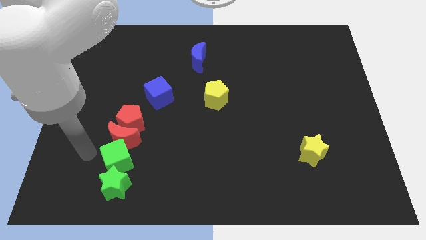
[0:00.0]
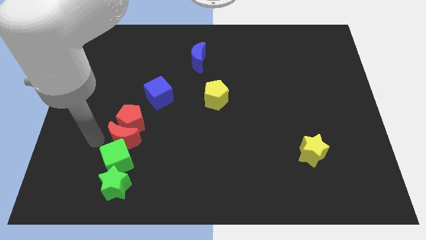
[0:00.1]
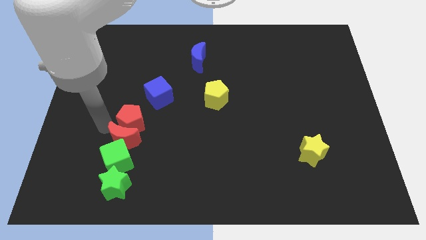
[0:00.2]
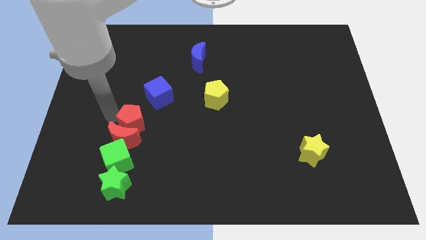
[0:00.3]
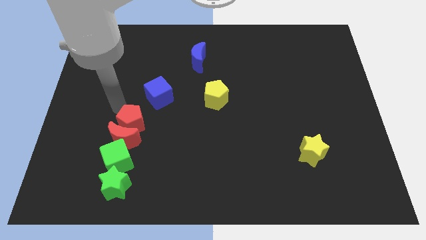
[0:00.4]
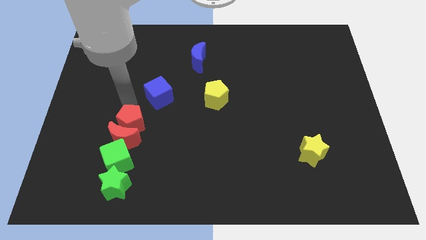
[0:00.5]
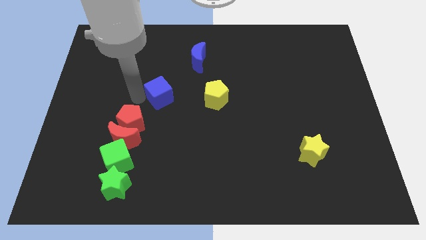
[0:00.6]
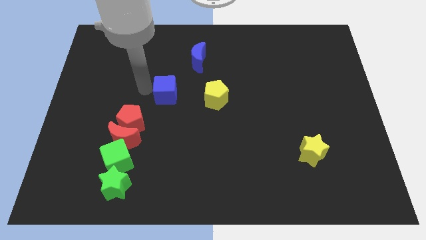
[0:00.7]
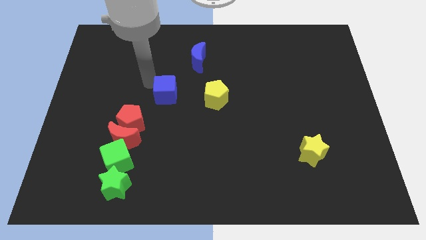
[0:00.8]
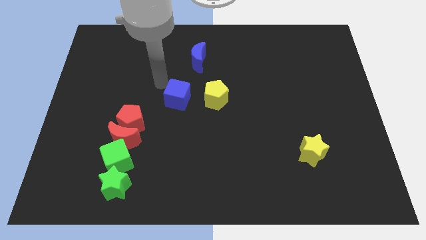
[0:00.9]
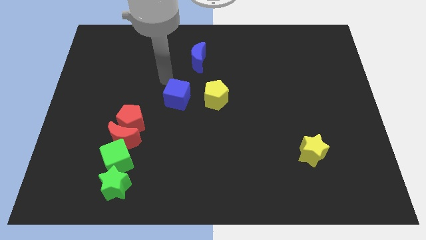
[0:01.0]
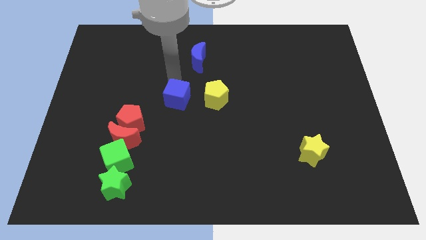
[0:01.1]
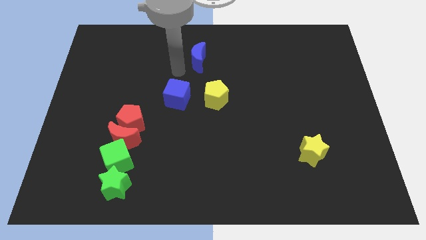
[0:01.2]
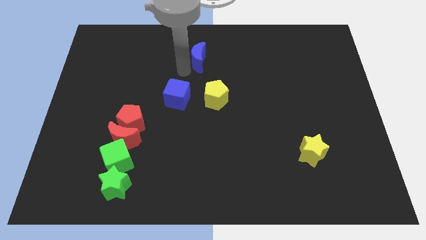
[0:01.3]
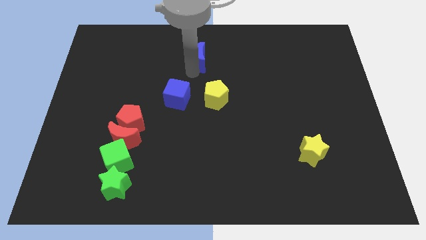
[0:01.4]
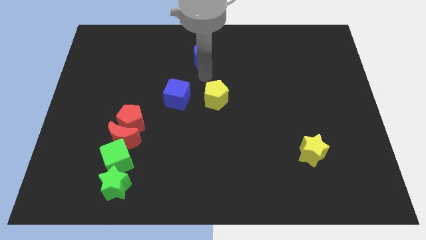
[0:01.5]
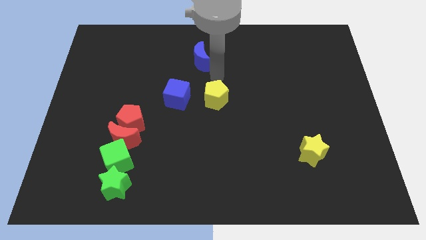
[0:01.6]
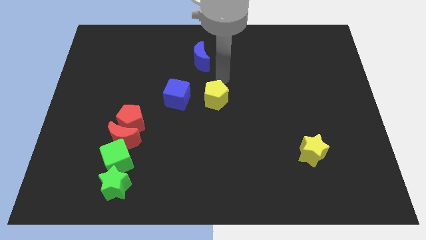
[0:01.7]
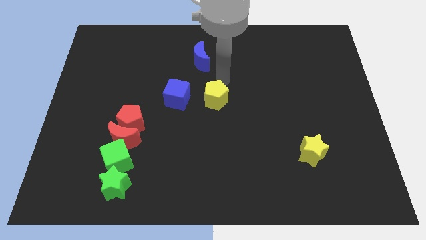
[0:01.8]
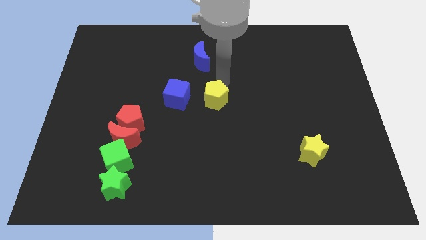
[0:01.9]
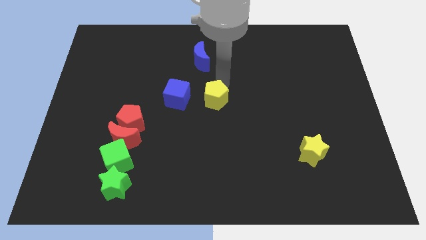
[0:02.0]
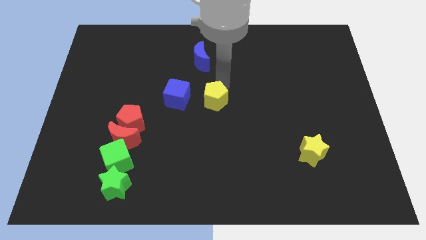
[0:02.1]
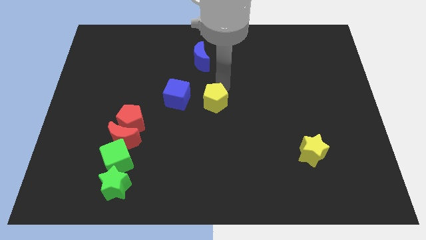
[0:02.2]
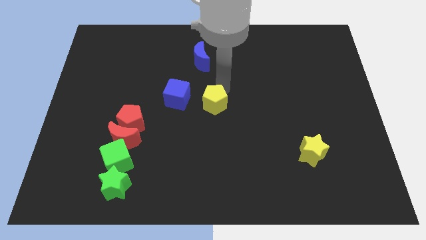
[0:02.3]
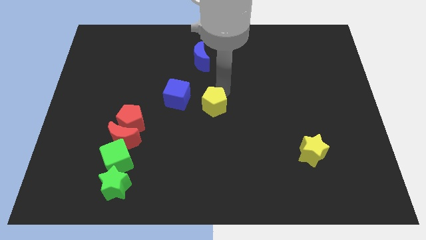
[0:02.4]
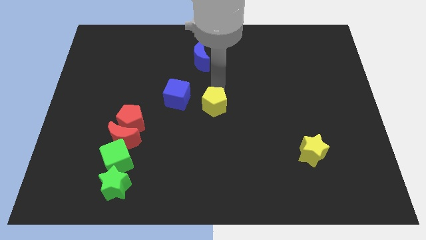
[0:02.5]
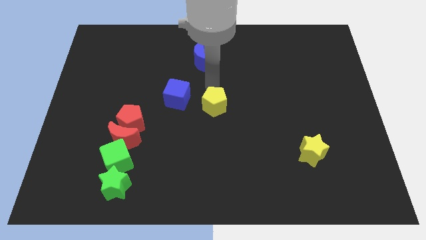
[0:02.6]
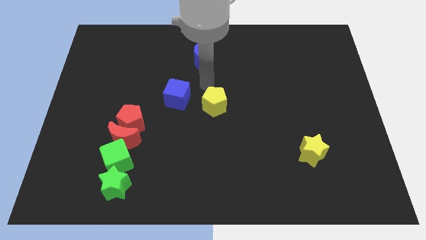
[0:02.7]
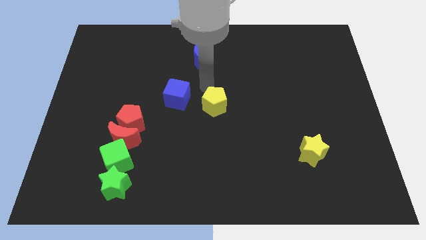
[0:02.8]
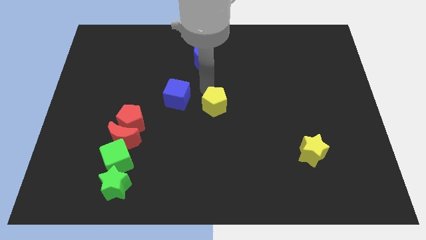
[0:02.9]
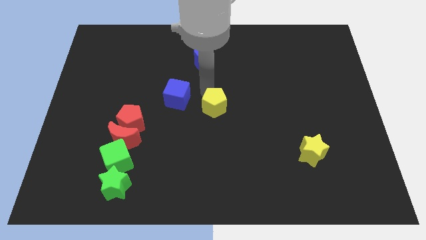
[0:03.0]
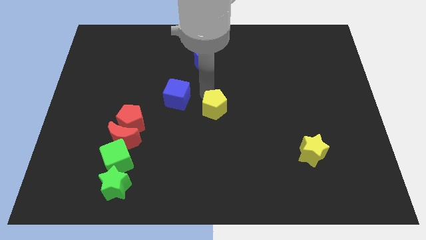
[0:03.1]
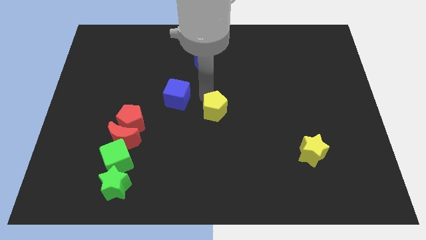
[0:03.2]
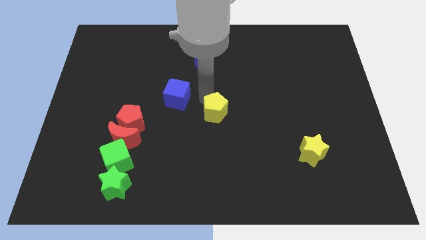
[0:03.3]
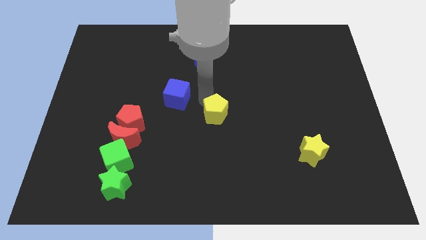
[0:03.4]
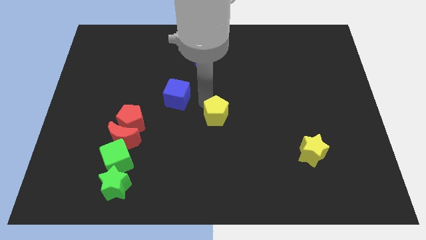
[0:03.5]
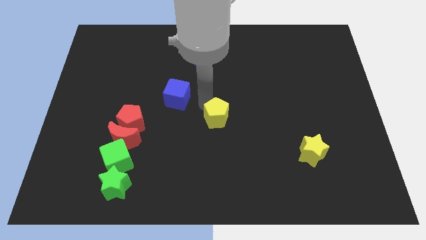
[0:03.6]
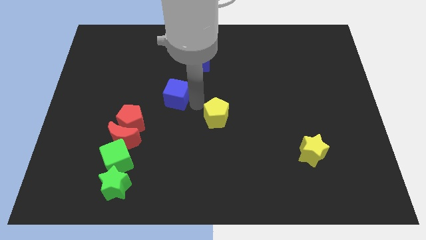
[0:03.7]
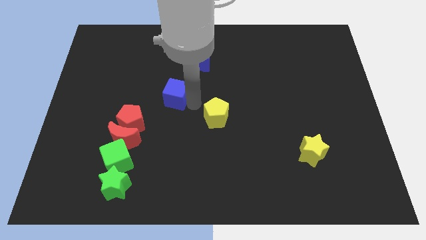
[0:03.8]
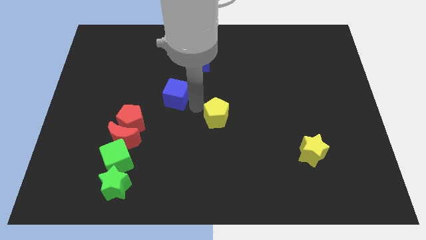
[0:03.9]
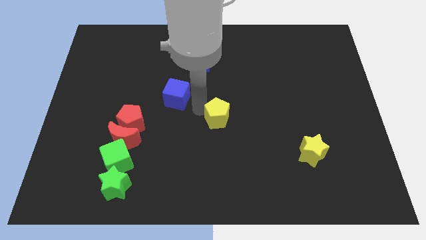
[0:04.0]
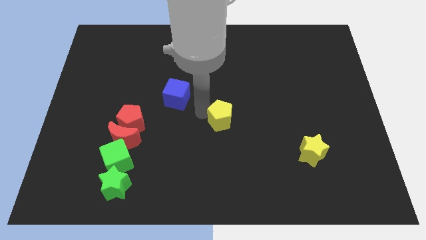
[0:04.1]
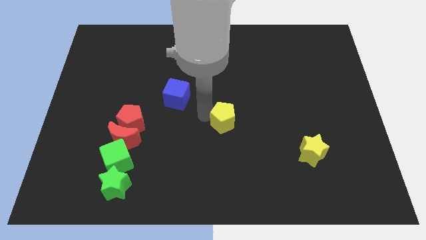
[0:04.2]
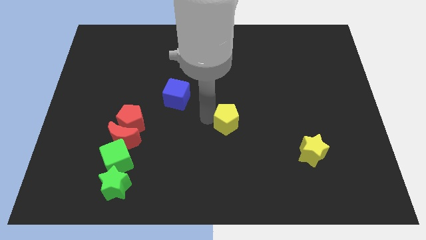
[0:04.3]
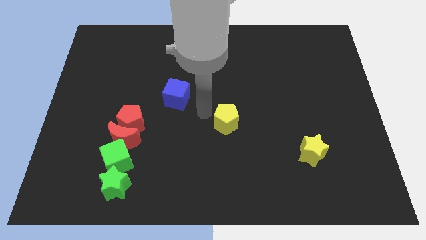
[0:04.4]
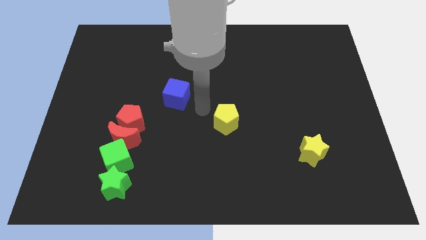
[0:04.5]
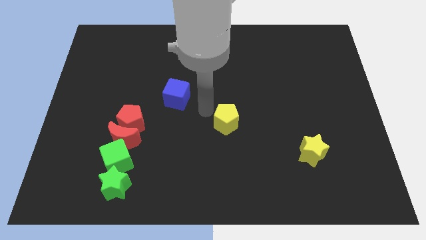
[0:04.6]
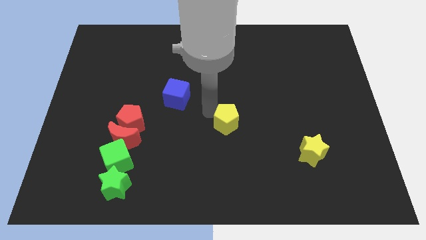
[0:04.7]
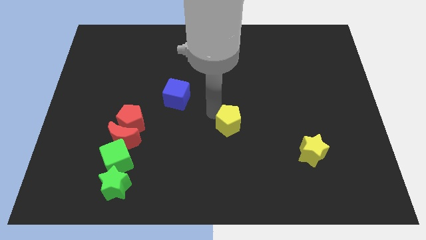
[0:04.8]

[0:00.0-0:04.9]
slightly slide the yellow pentagon down and to the right

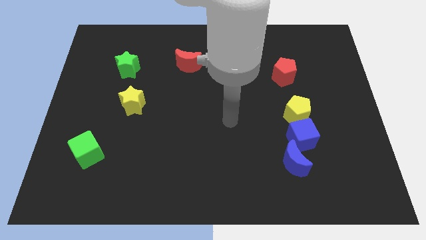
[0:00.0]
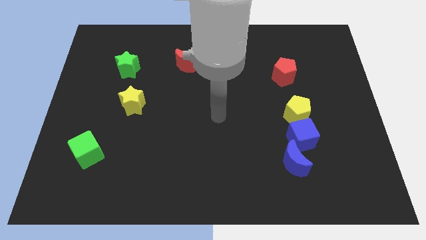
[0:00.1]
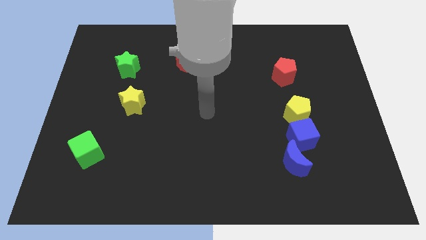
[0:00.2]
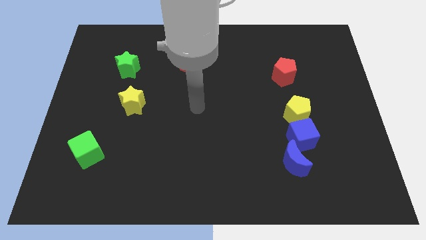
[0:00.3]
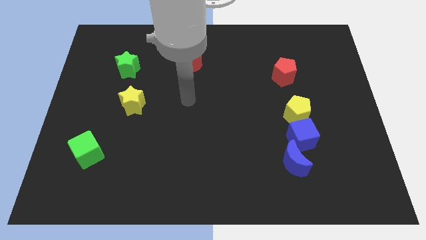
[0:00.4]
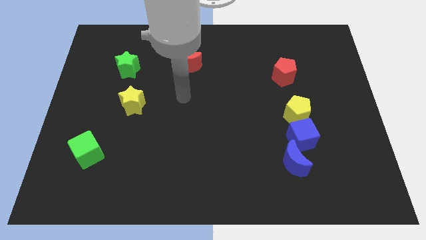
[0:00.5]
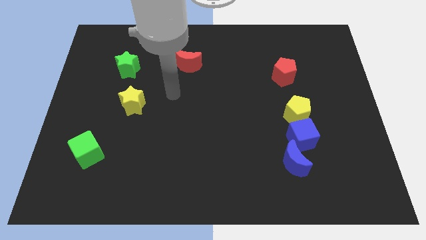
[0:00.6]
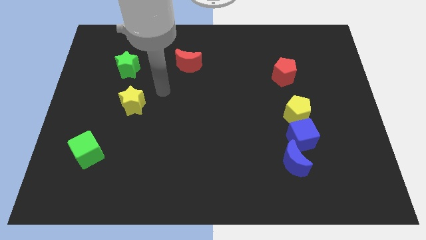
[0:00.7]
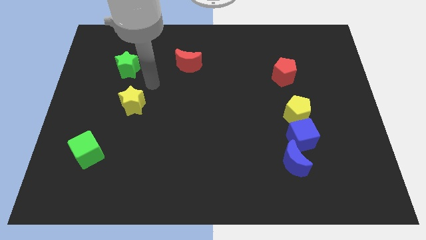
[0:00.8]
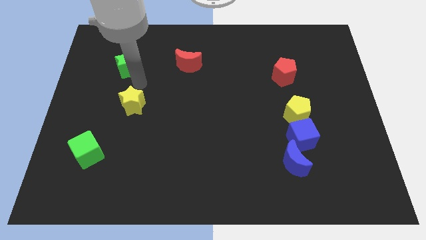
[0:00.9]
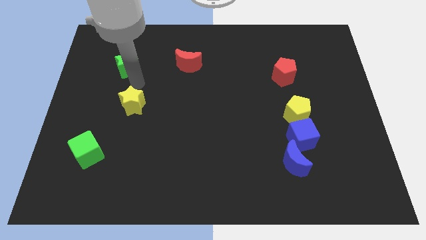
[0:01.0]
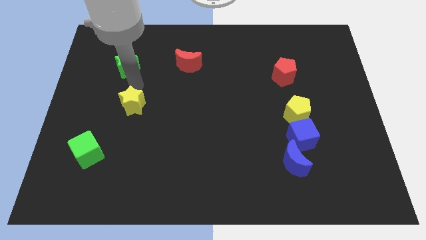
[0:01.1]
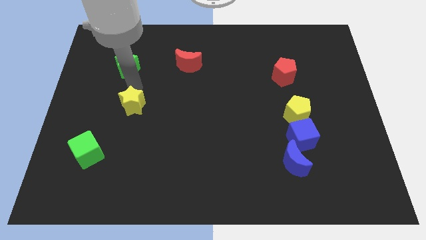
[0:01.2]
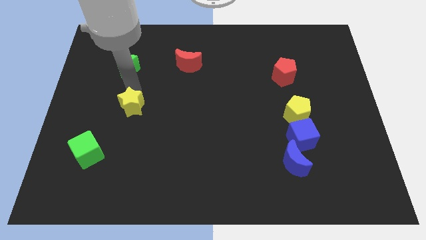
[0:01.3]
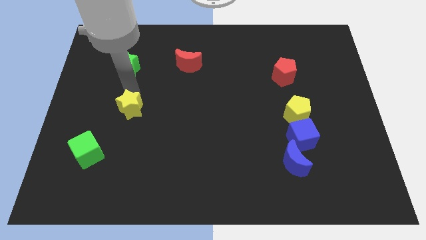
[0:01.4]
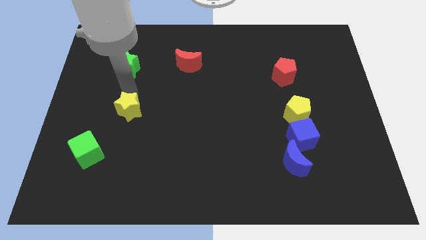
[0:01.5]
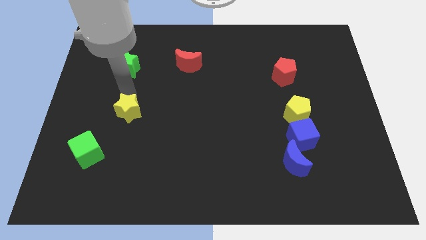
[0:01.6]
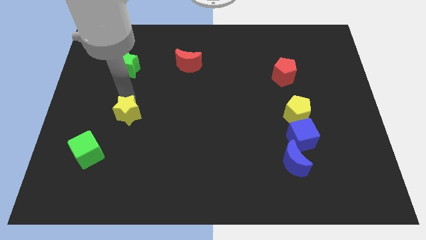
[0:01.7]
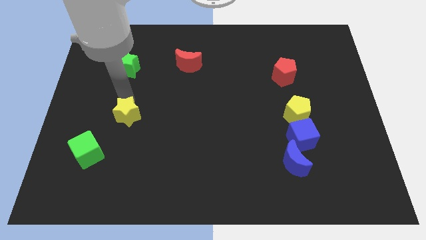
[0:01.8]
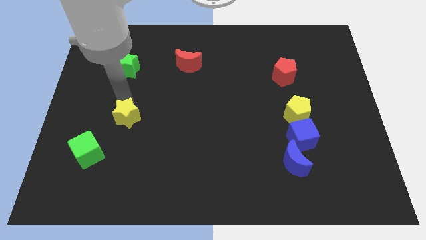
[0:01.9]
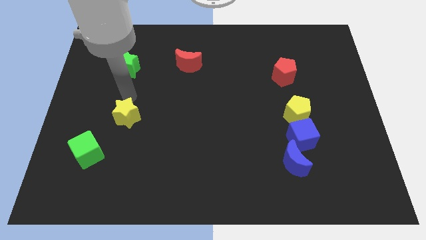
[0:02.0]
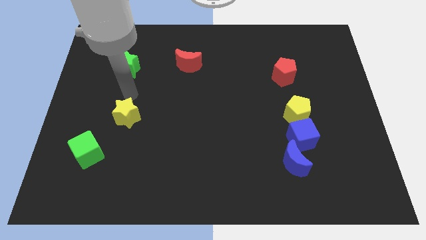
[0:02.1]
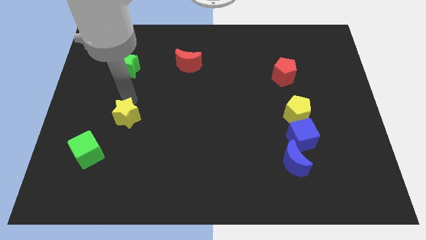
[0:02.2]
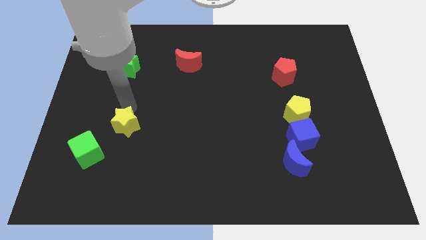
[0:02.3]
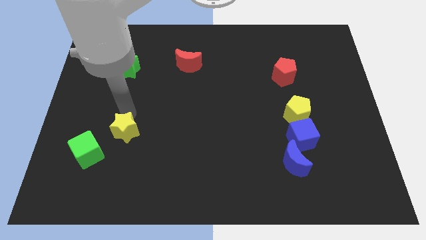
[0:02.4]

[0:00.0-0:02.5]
slide the yellow star downwards a bit

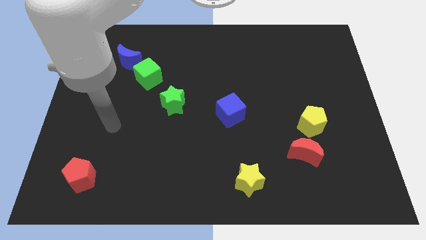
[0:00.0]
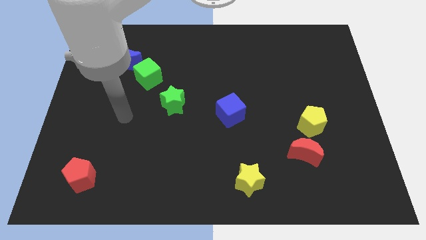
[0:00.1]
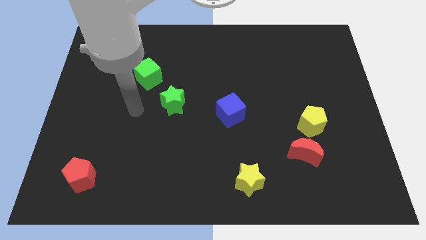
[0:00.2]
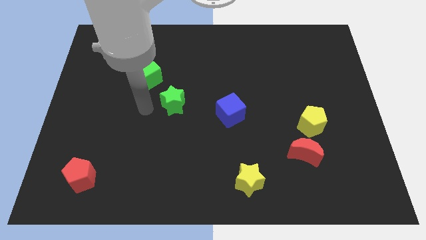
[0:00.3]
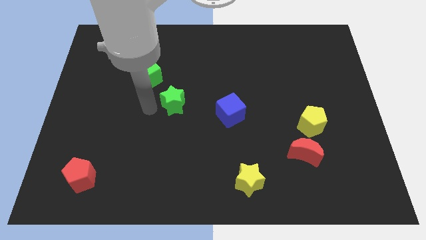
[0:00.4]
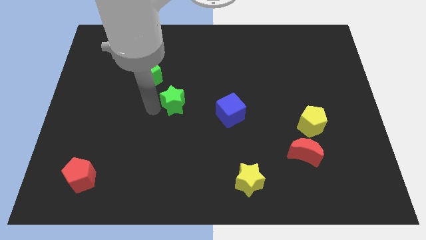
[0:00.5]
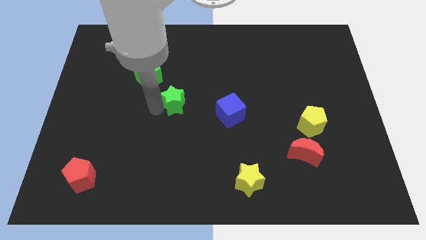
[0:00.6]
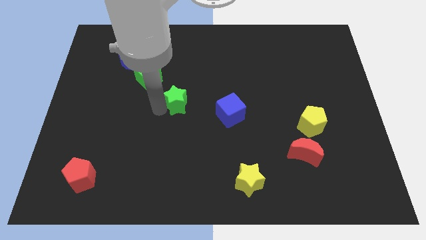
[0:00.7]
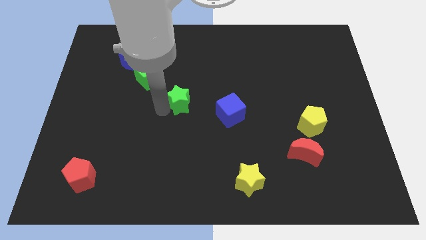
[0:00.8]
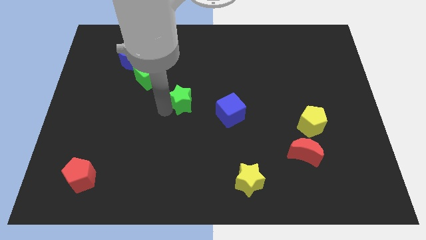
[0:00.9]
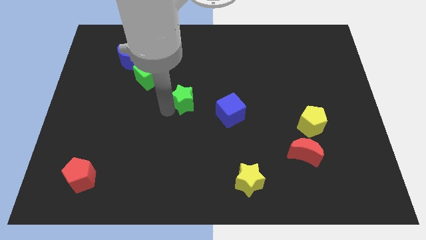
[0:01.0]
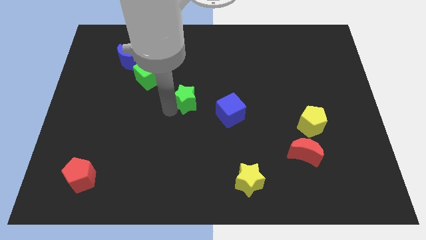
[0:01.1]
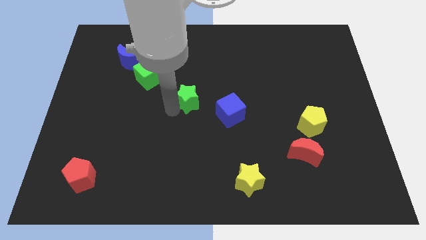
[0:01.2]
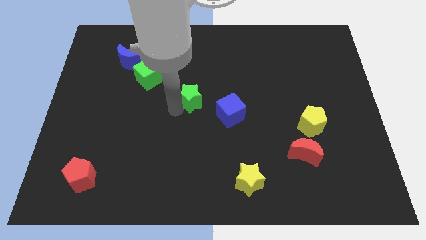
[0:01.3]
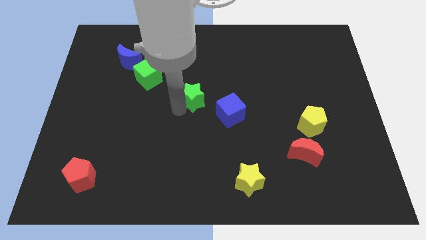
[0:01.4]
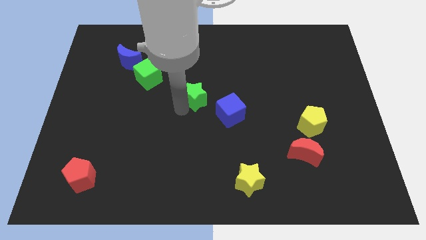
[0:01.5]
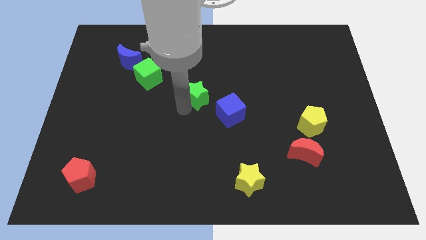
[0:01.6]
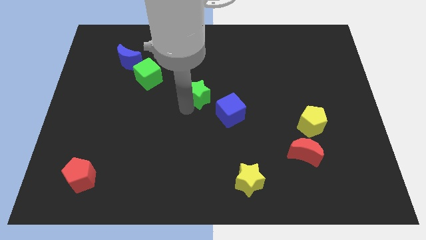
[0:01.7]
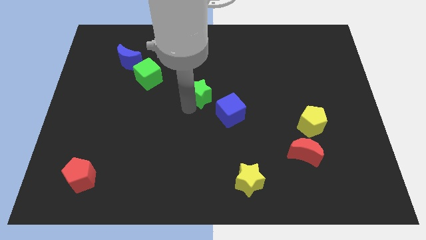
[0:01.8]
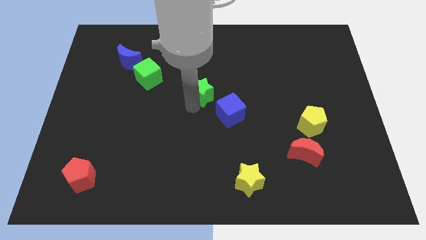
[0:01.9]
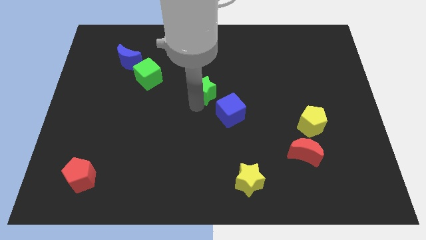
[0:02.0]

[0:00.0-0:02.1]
push the green star somewhat diagonally upwards and right
